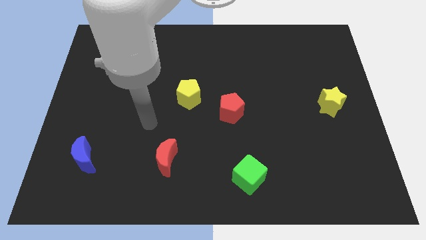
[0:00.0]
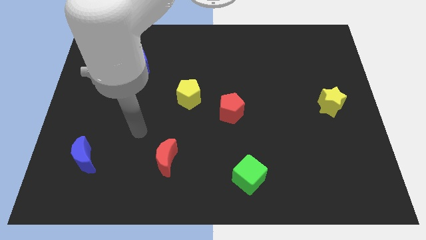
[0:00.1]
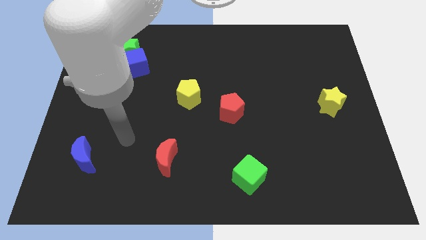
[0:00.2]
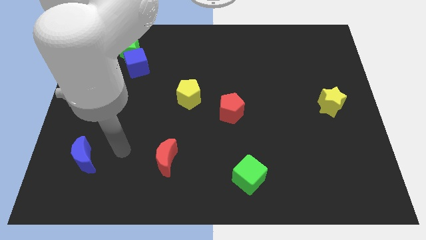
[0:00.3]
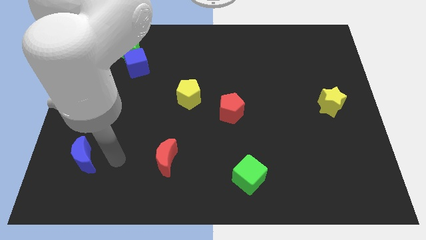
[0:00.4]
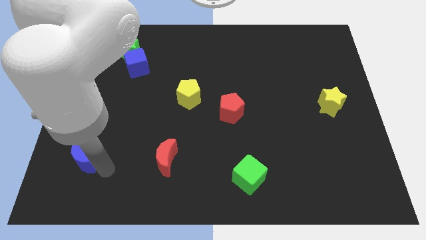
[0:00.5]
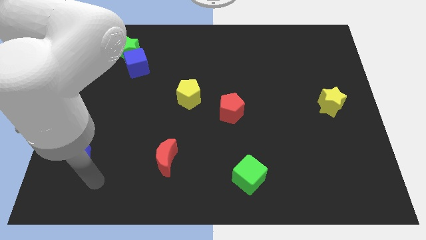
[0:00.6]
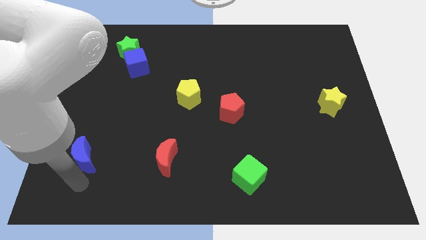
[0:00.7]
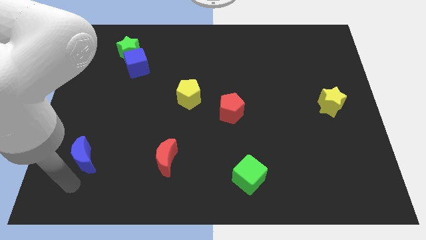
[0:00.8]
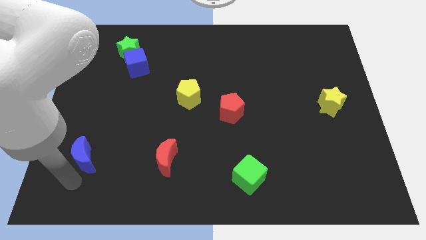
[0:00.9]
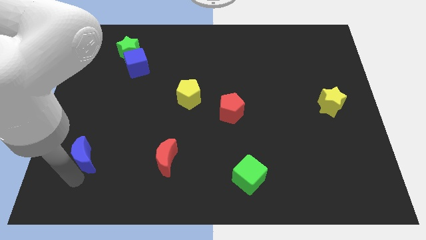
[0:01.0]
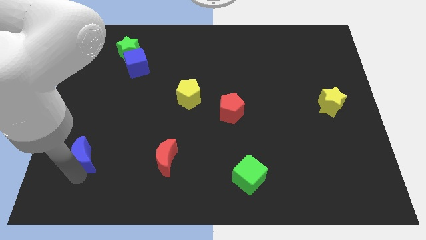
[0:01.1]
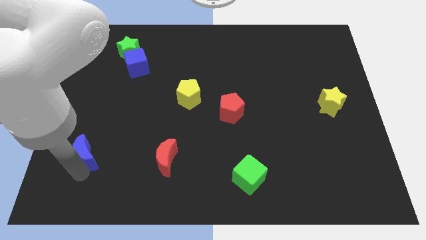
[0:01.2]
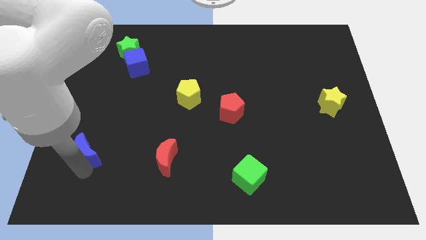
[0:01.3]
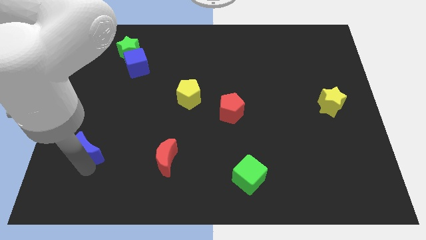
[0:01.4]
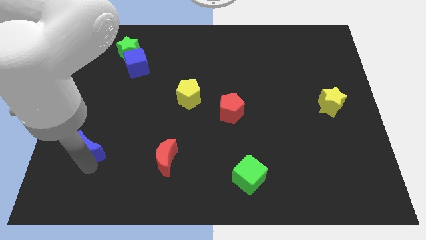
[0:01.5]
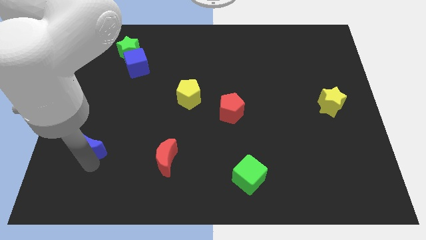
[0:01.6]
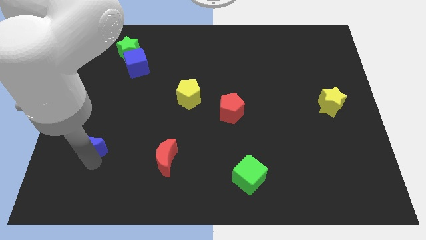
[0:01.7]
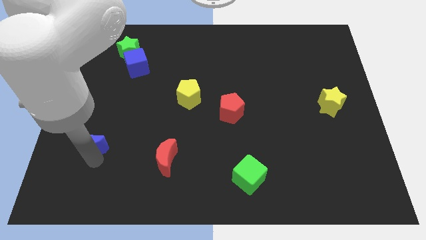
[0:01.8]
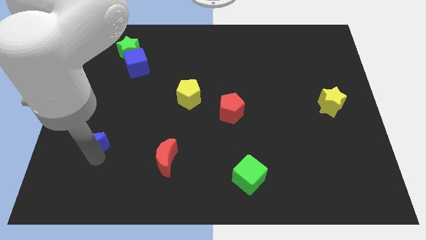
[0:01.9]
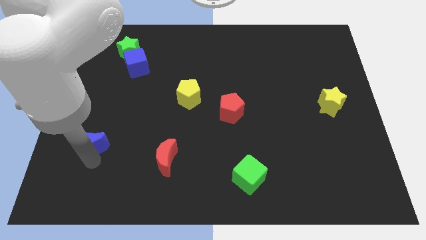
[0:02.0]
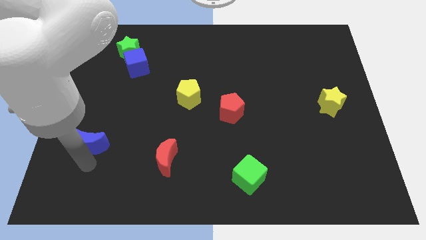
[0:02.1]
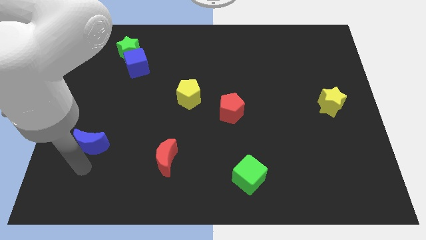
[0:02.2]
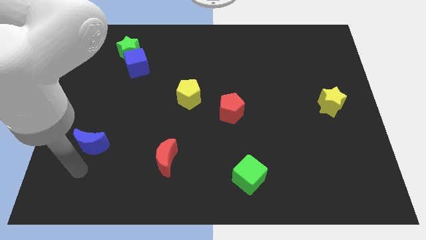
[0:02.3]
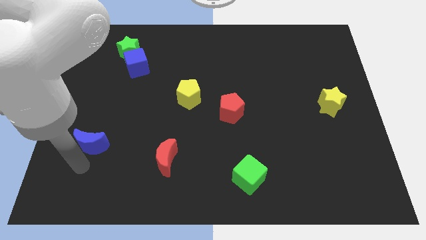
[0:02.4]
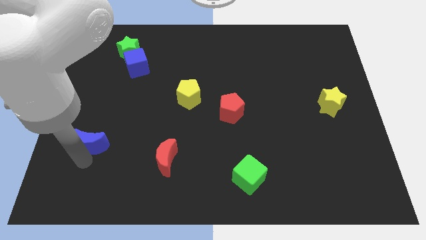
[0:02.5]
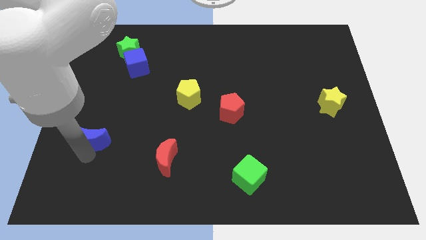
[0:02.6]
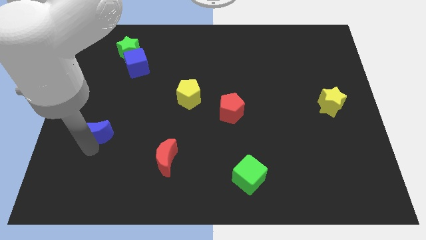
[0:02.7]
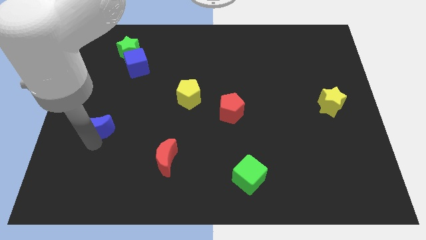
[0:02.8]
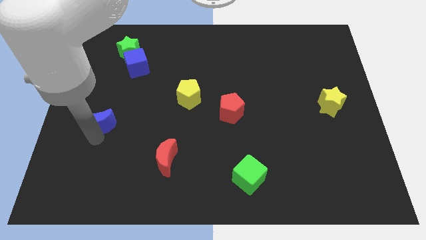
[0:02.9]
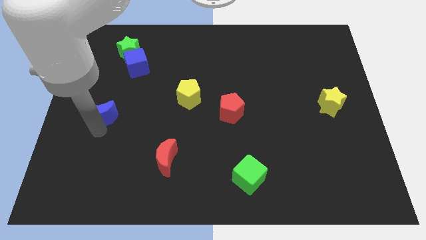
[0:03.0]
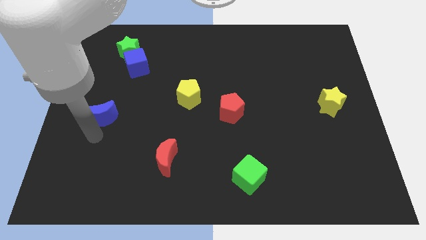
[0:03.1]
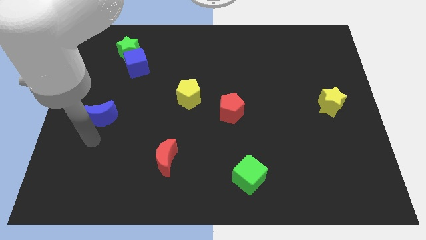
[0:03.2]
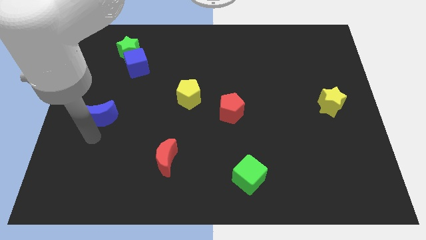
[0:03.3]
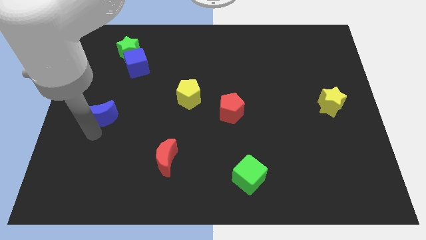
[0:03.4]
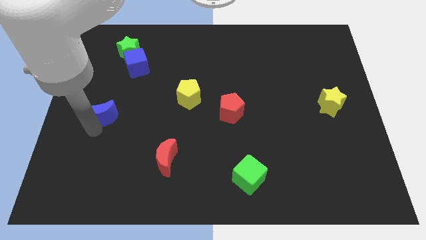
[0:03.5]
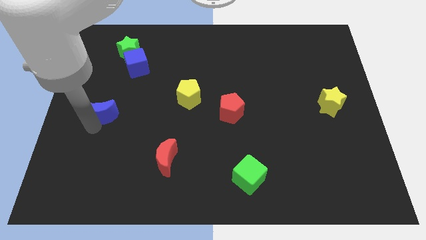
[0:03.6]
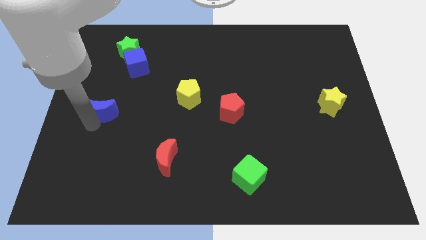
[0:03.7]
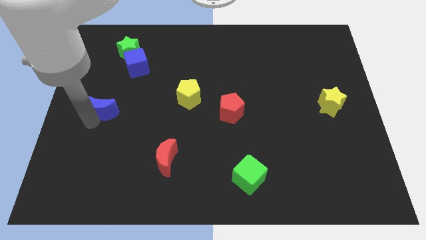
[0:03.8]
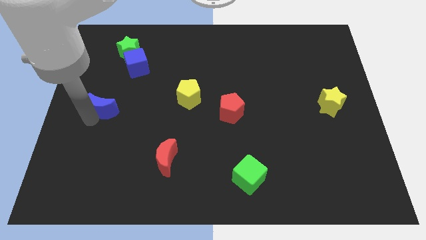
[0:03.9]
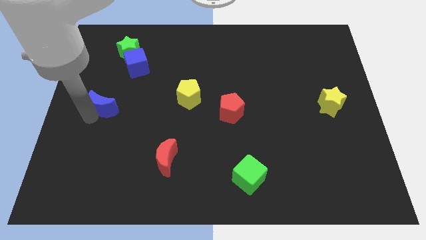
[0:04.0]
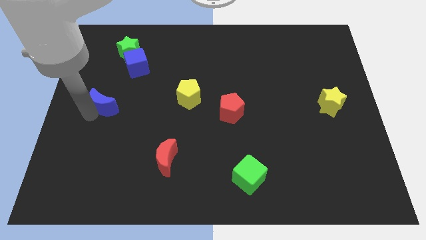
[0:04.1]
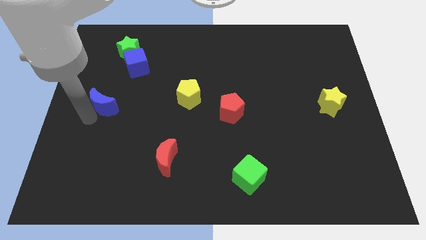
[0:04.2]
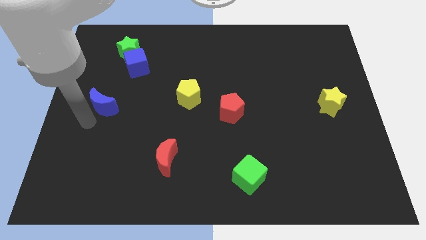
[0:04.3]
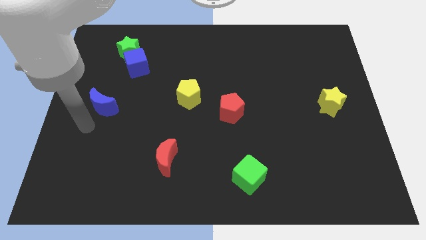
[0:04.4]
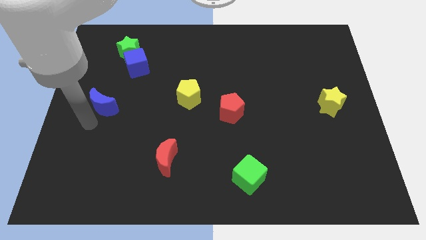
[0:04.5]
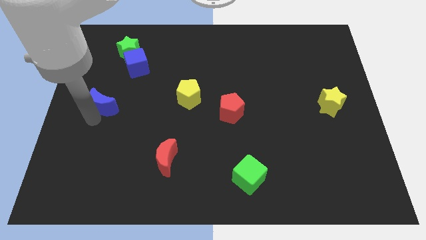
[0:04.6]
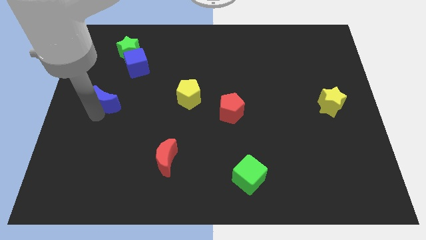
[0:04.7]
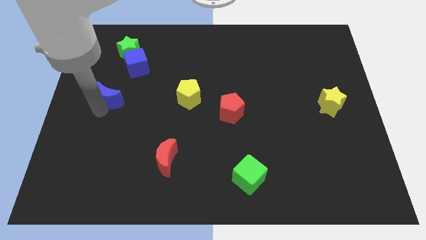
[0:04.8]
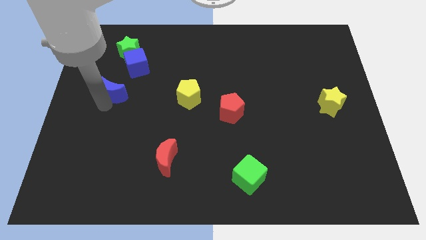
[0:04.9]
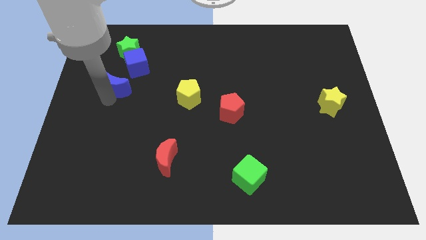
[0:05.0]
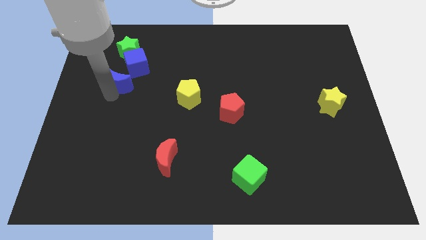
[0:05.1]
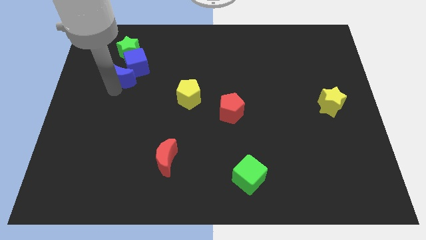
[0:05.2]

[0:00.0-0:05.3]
push the blue moon towards the blue cube

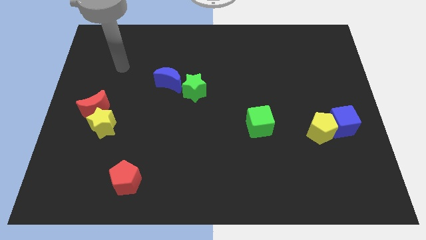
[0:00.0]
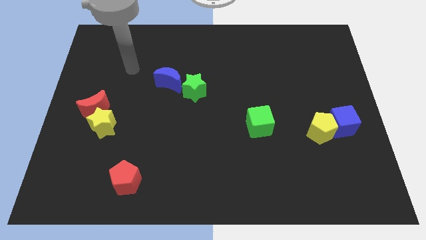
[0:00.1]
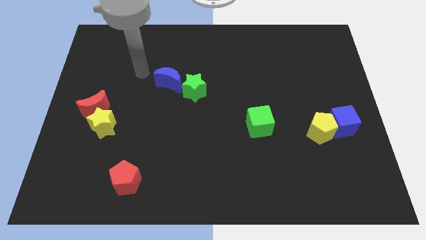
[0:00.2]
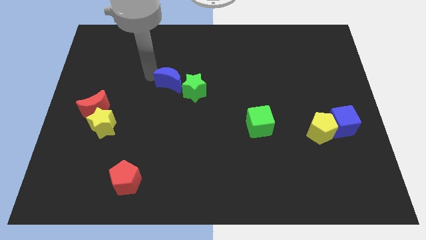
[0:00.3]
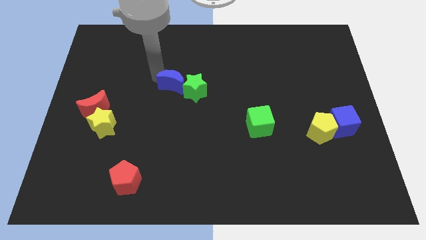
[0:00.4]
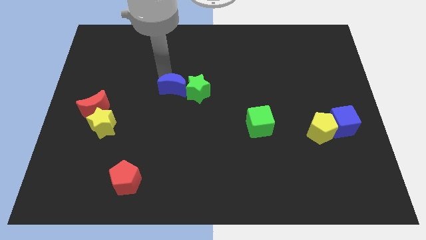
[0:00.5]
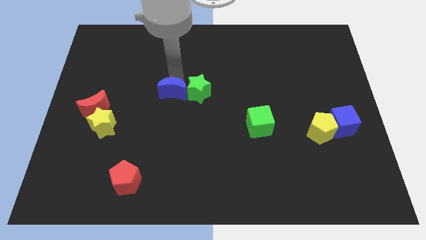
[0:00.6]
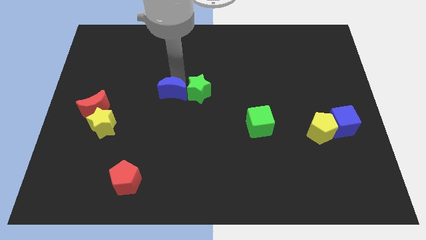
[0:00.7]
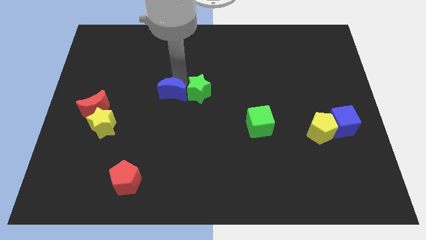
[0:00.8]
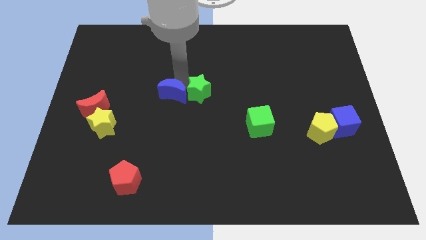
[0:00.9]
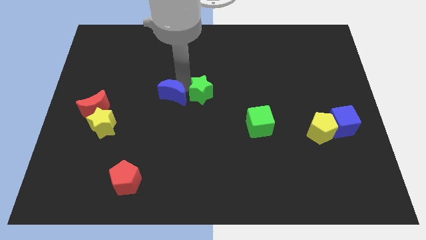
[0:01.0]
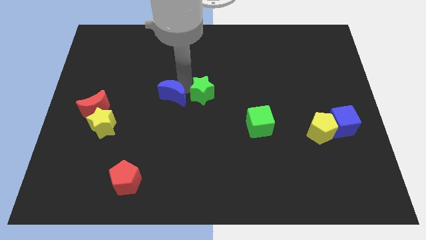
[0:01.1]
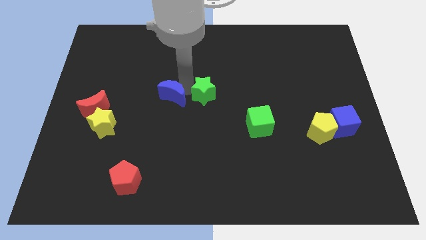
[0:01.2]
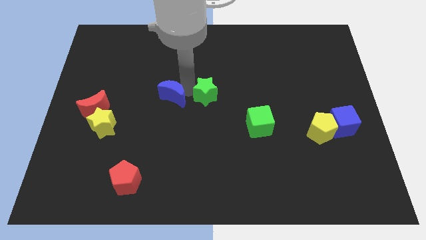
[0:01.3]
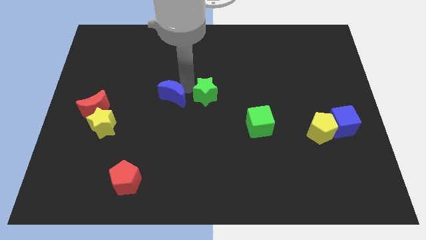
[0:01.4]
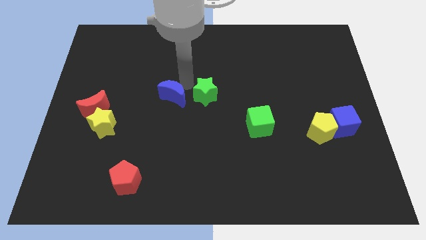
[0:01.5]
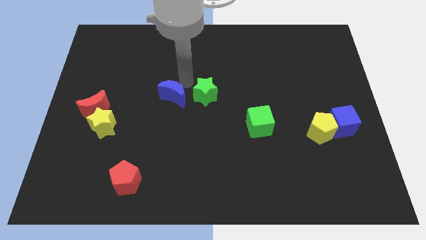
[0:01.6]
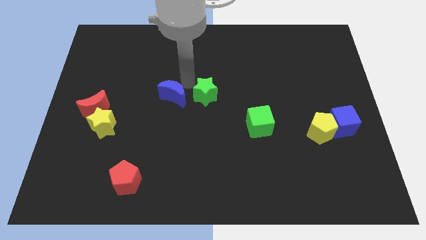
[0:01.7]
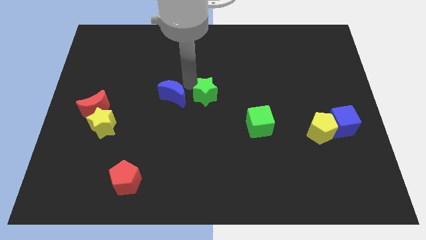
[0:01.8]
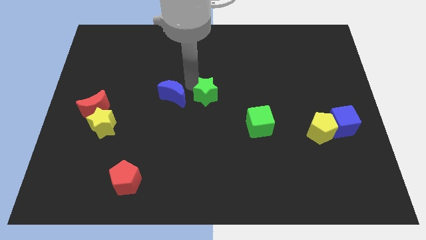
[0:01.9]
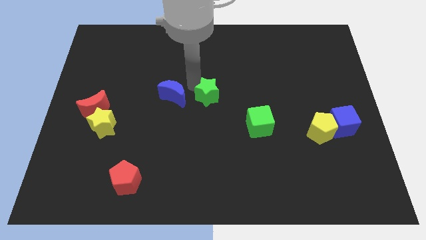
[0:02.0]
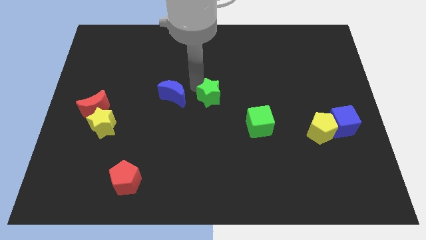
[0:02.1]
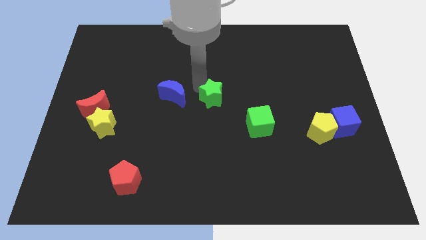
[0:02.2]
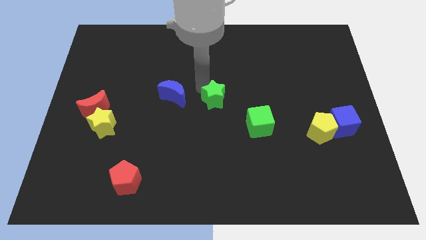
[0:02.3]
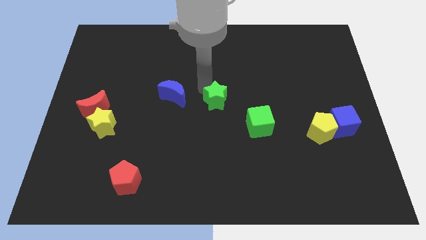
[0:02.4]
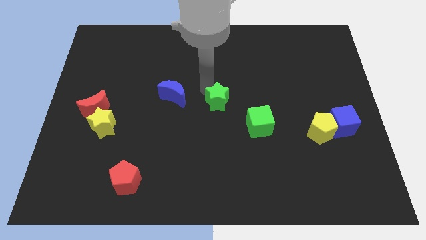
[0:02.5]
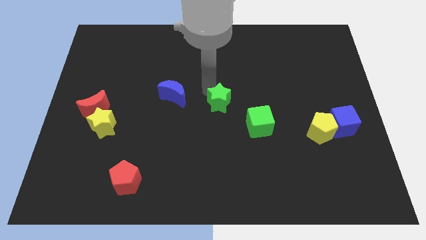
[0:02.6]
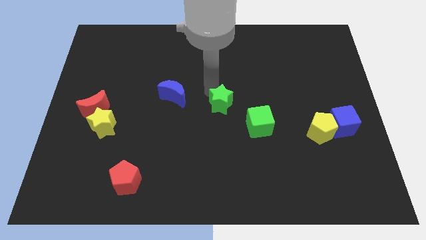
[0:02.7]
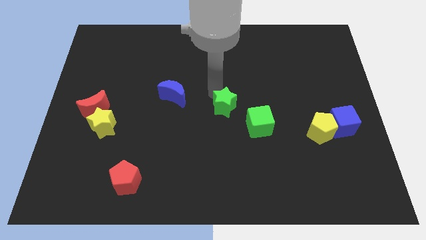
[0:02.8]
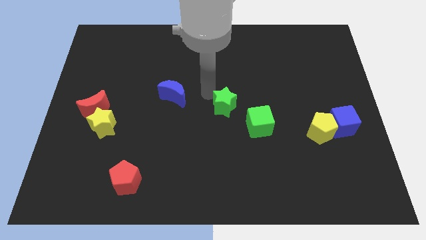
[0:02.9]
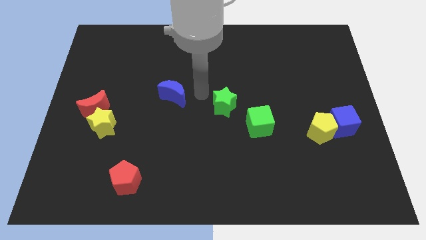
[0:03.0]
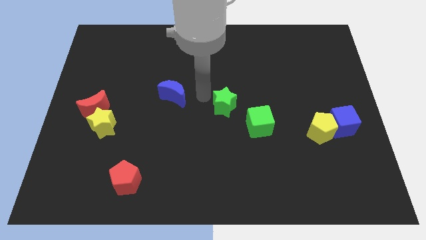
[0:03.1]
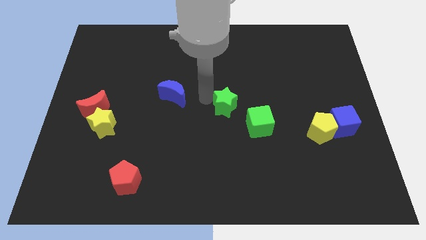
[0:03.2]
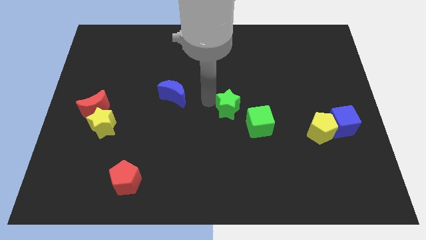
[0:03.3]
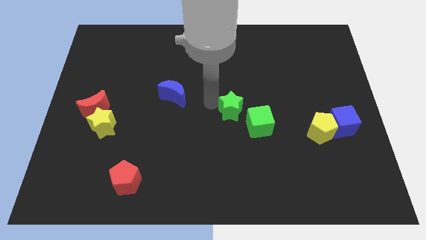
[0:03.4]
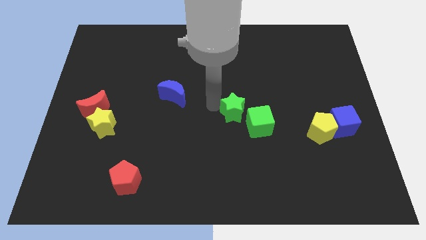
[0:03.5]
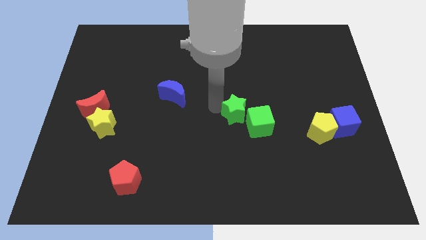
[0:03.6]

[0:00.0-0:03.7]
push the green star close to the green cube
